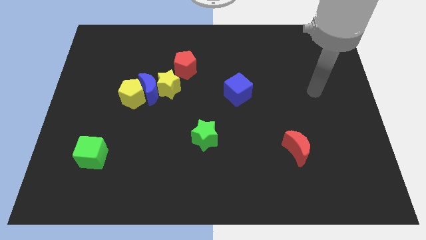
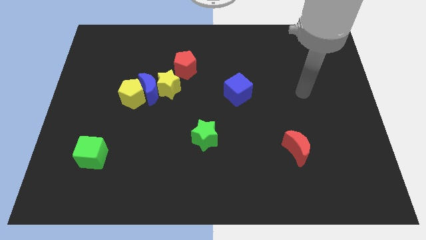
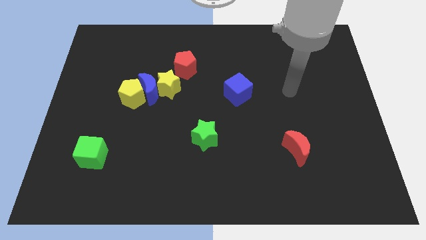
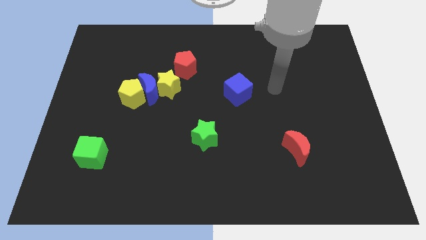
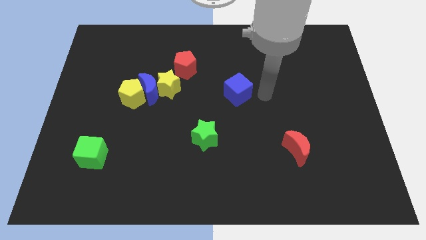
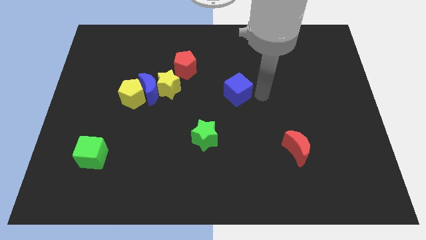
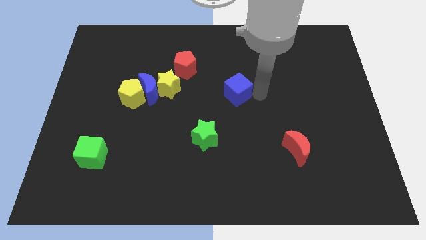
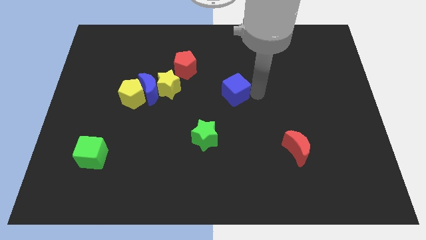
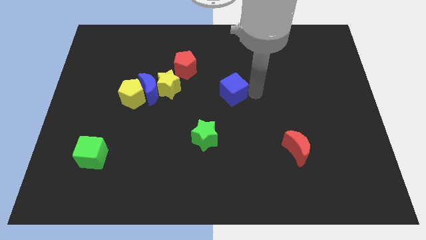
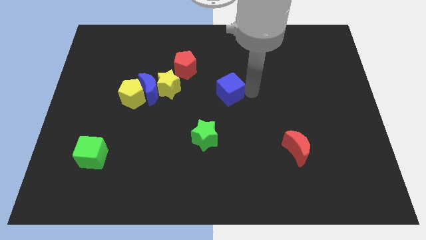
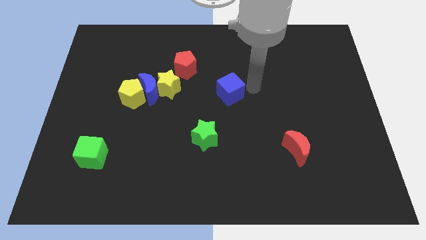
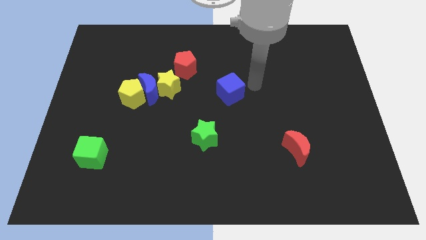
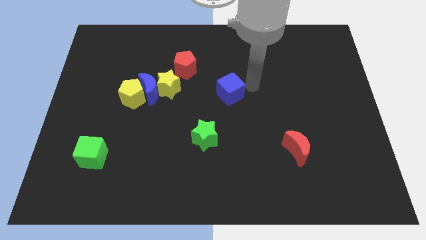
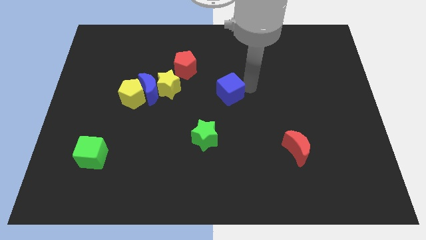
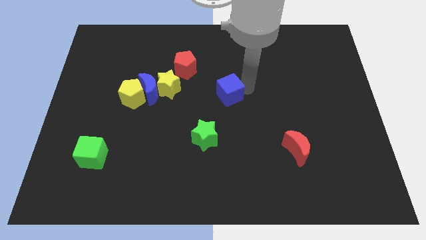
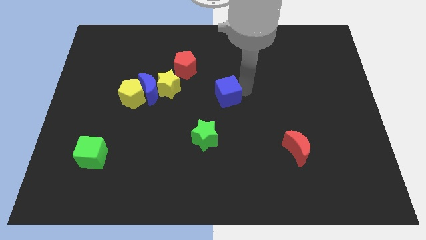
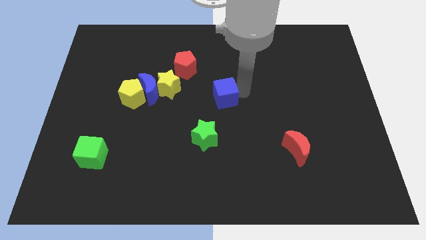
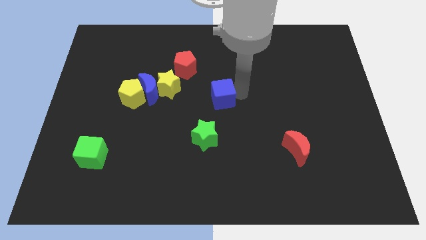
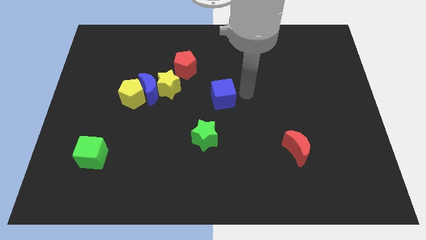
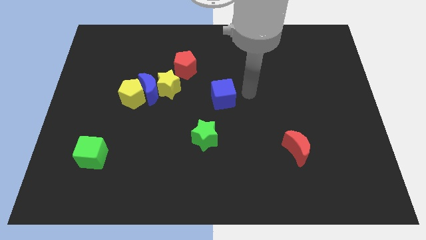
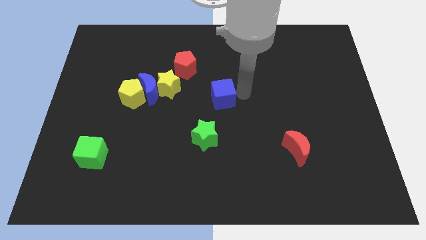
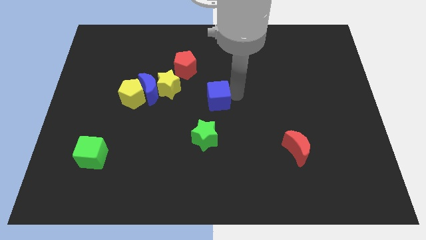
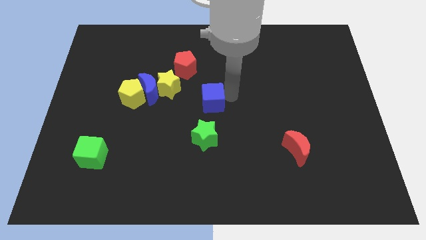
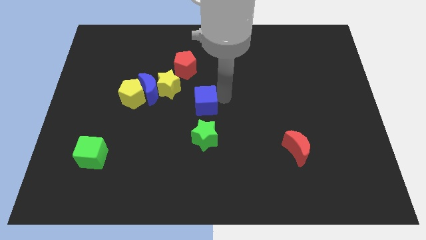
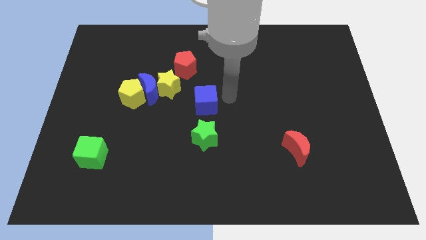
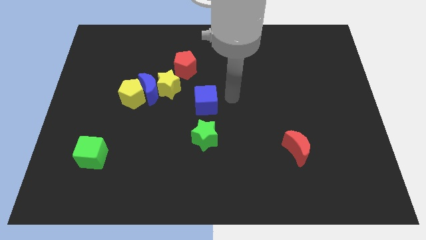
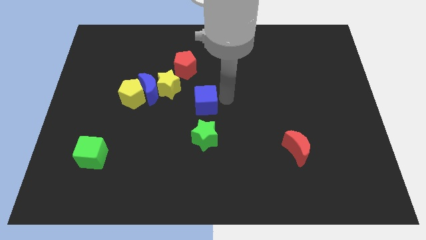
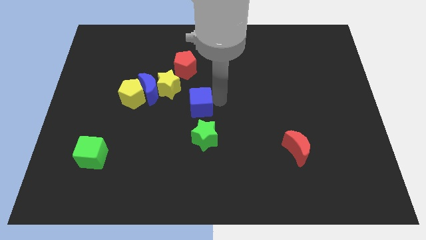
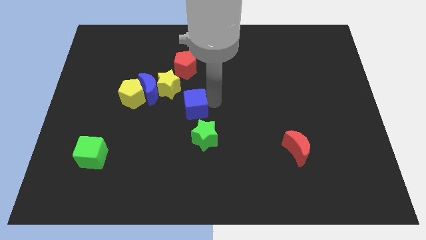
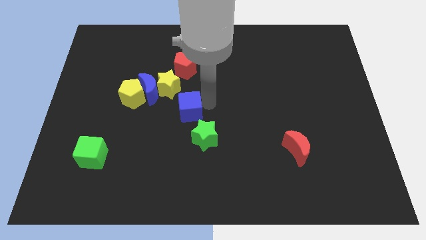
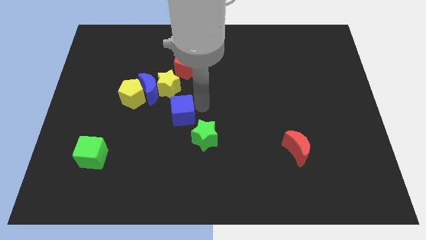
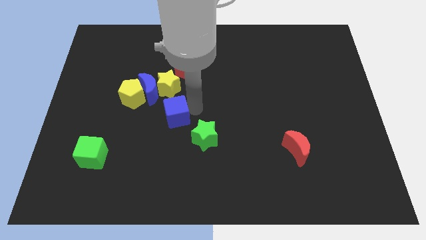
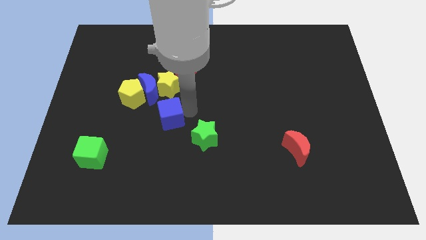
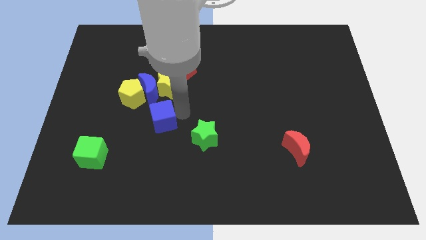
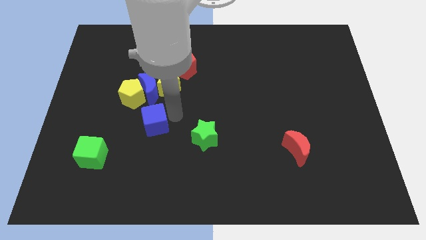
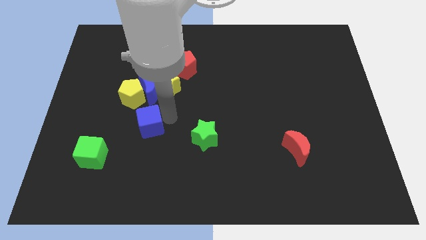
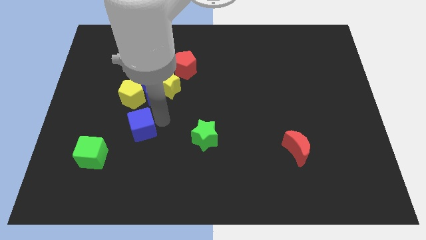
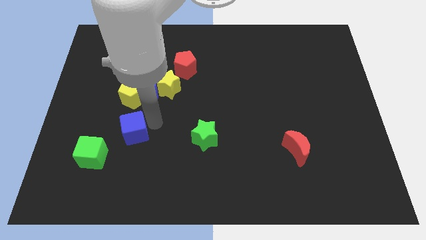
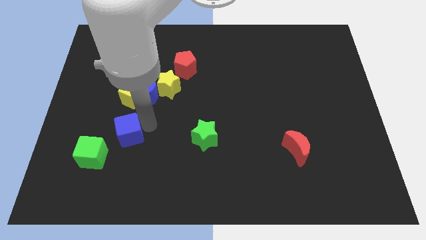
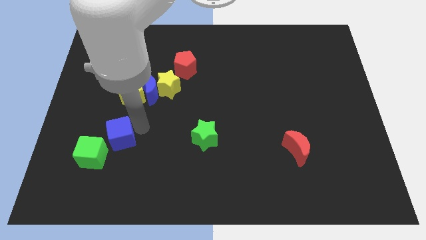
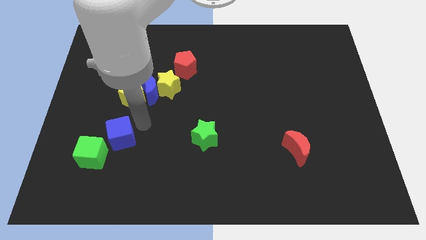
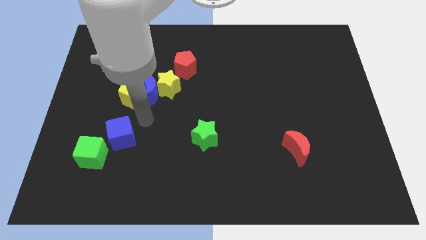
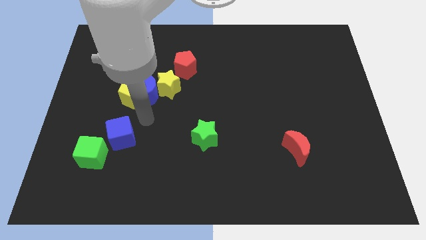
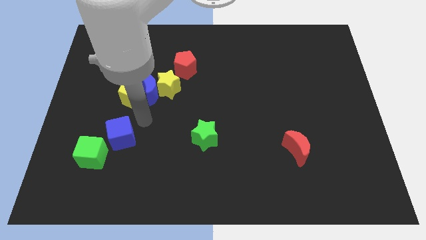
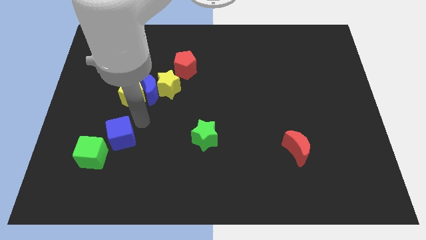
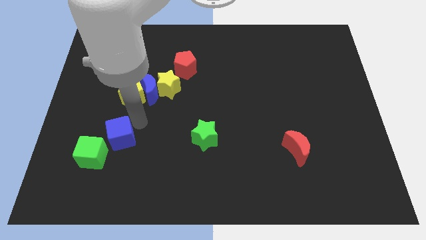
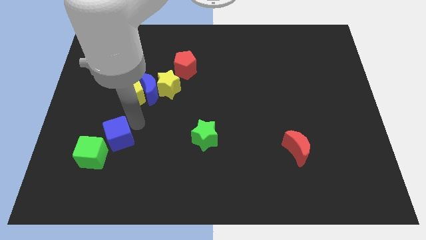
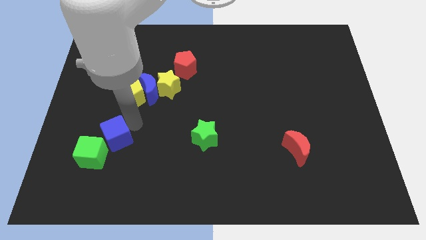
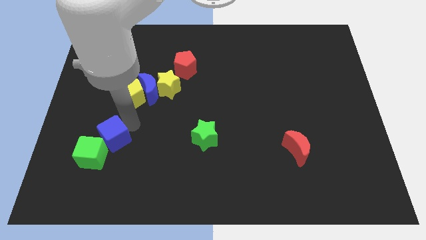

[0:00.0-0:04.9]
push the blue cube next to the green cube

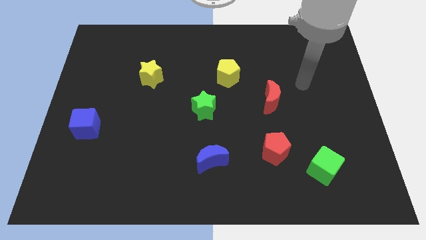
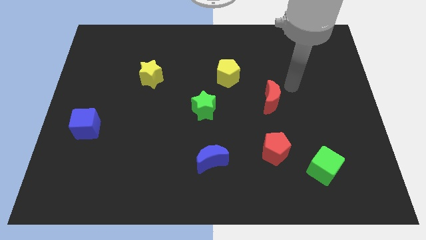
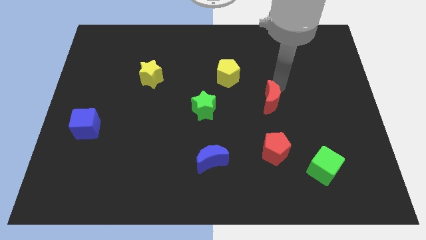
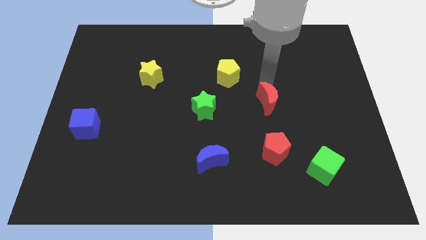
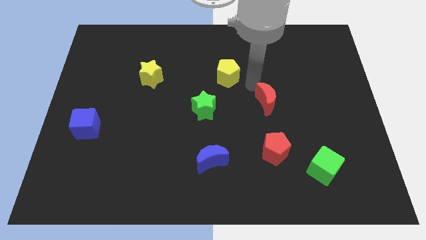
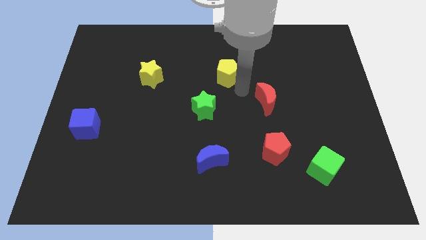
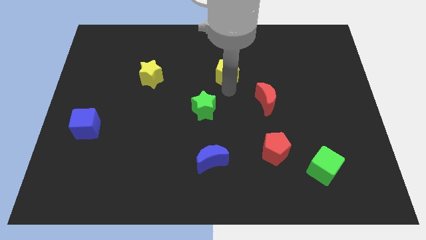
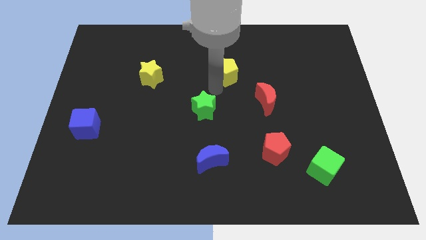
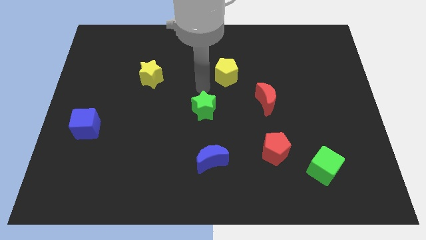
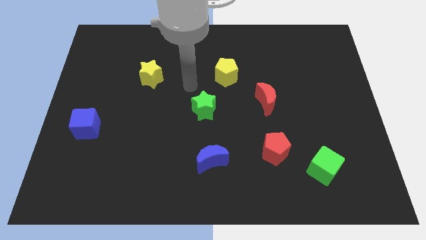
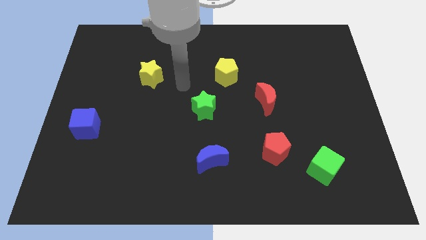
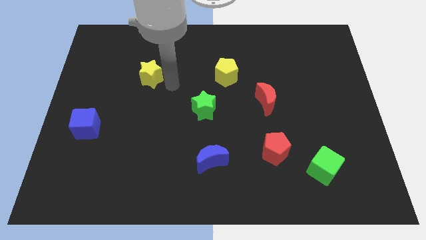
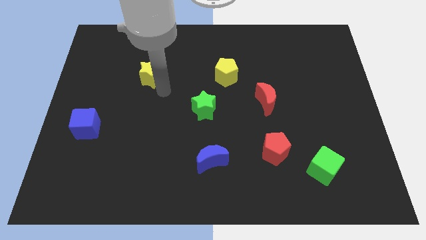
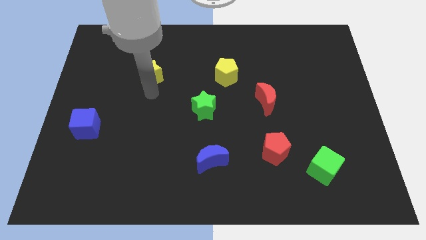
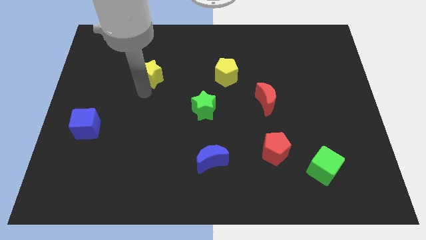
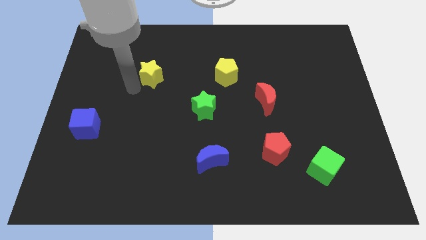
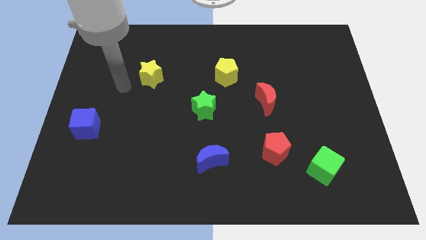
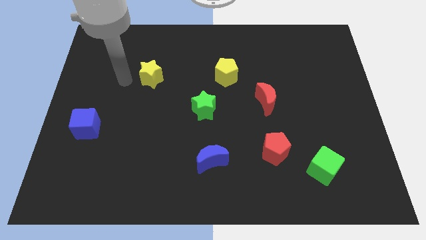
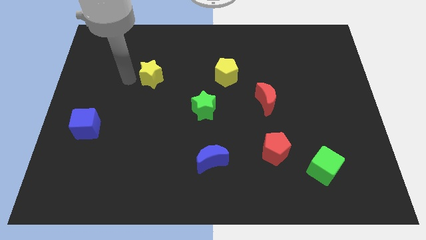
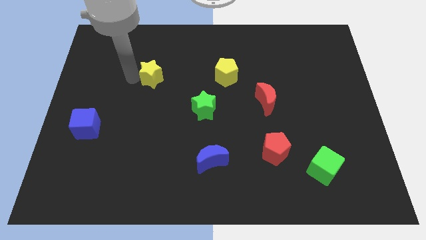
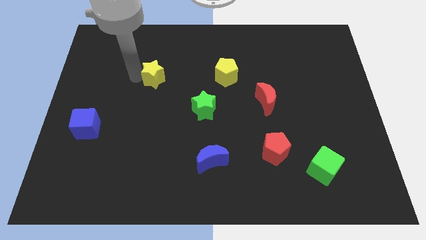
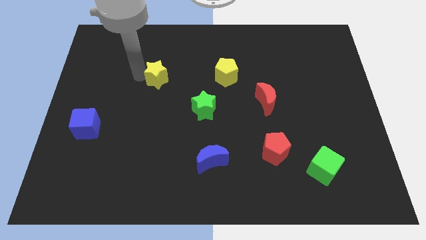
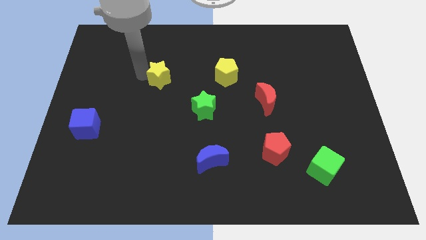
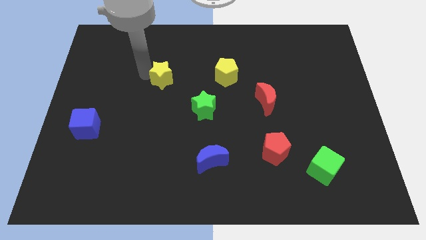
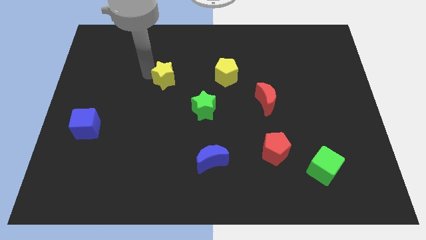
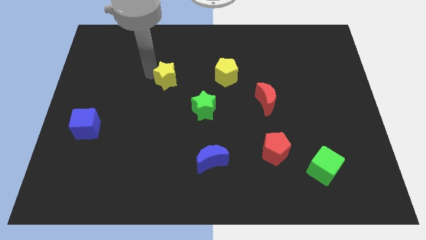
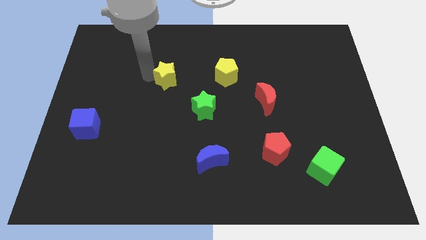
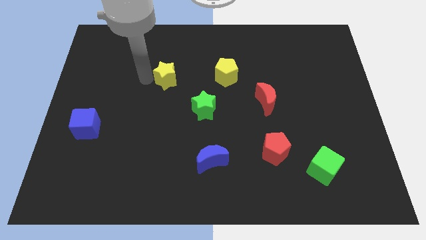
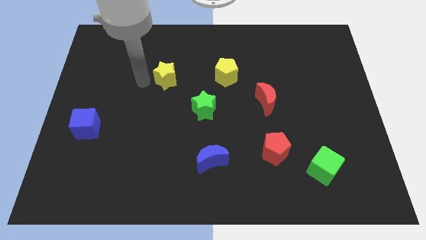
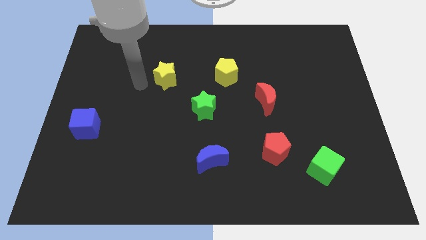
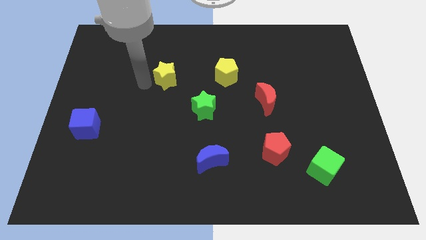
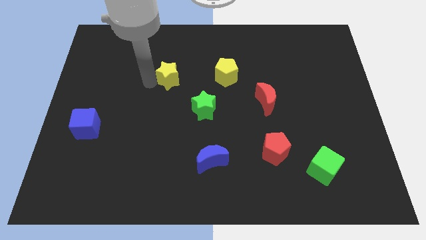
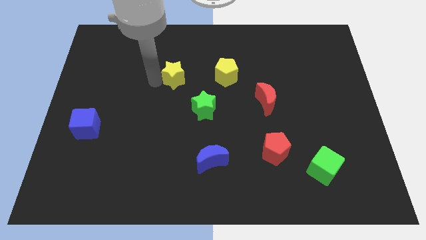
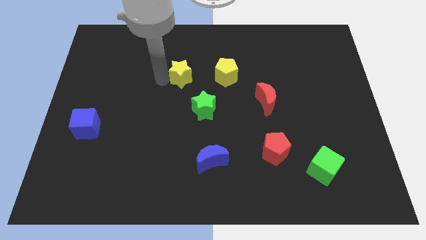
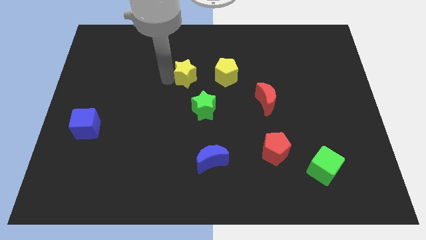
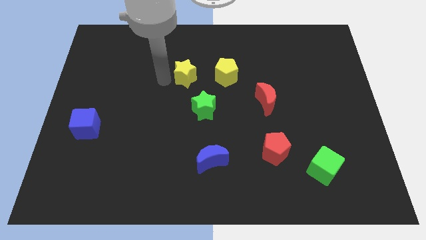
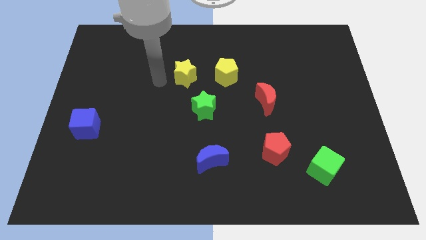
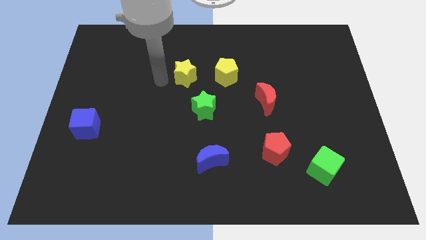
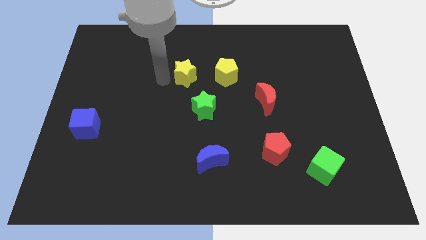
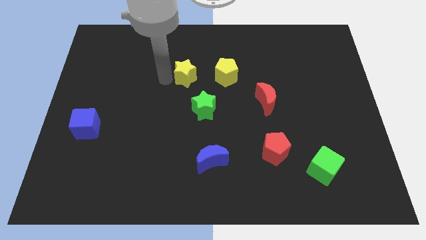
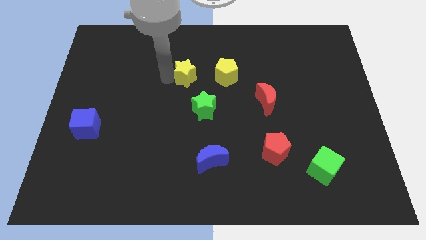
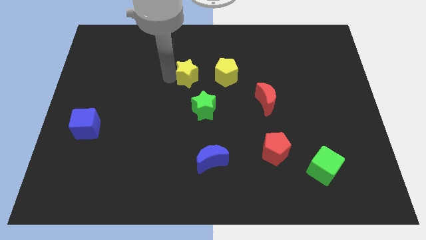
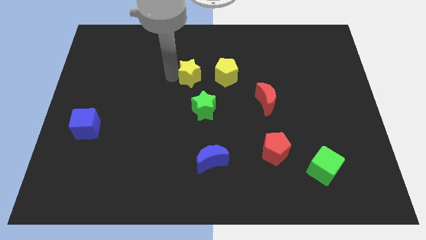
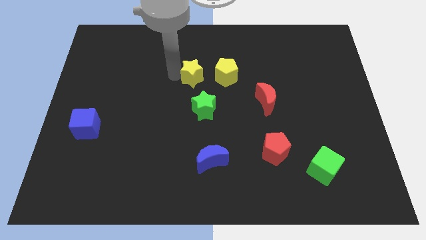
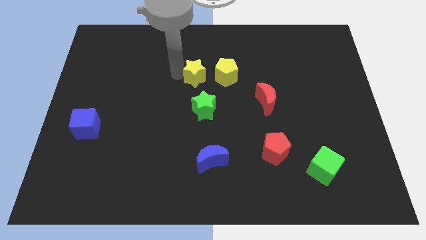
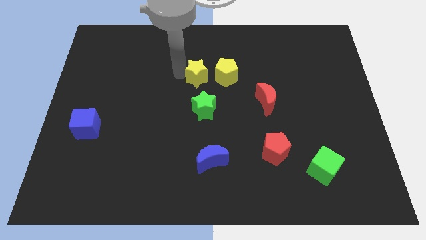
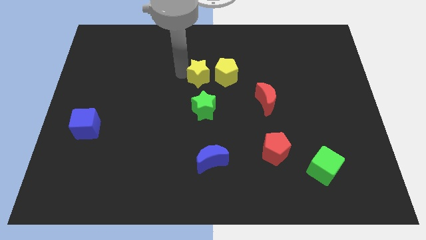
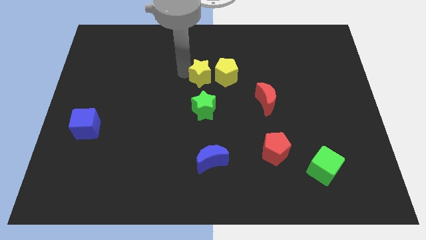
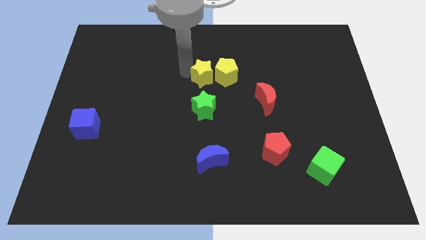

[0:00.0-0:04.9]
move the yellow star next to the yellow pentagon
